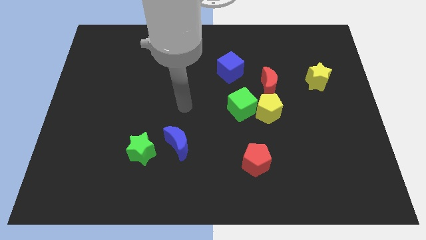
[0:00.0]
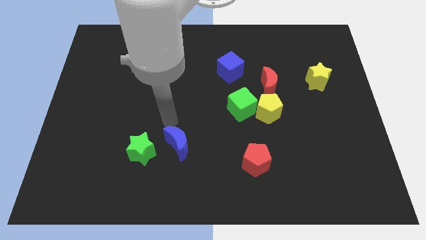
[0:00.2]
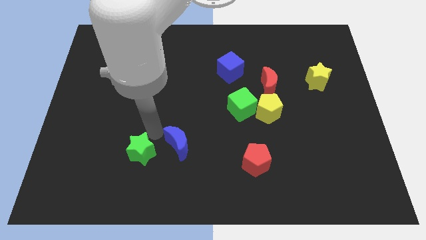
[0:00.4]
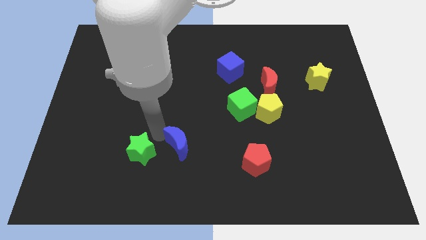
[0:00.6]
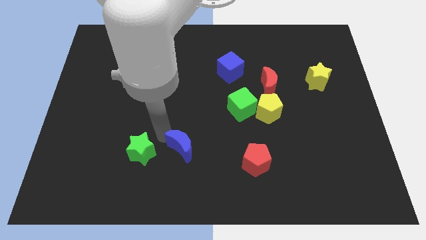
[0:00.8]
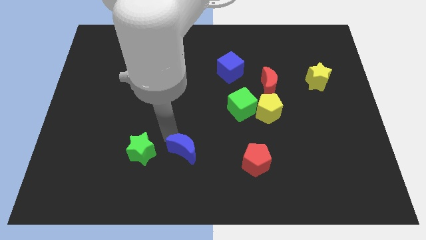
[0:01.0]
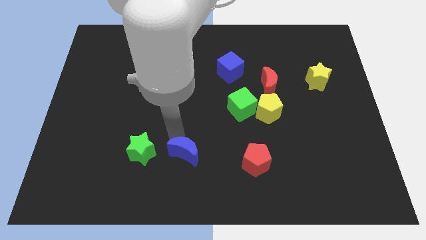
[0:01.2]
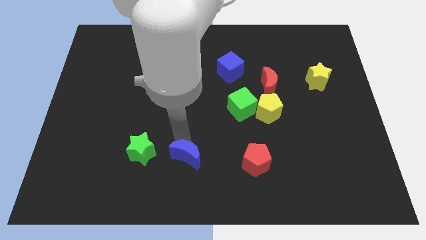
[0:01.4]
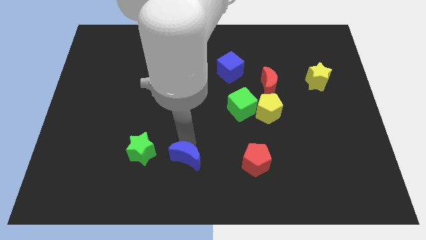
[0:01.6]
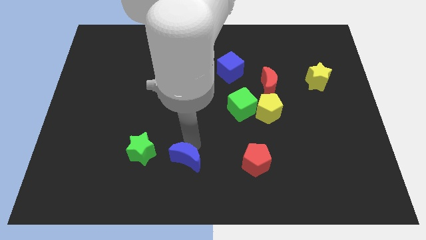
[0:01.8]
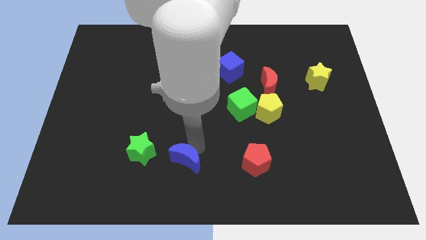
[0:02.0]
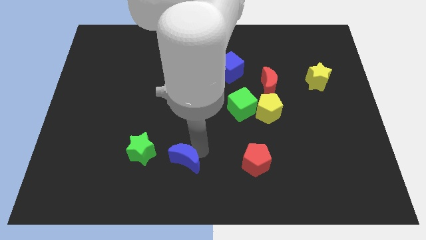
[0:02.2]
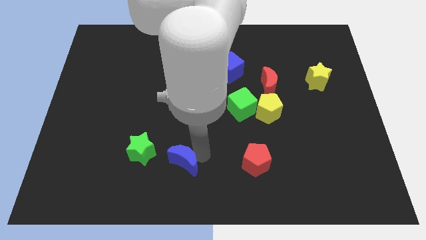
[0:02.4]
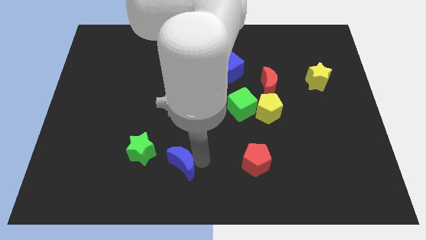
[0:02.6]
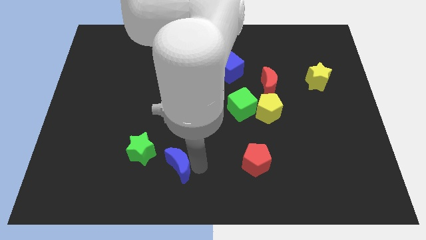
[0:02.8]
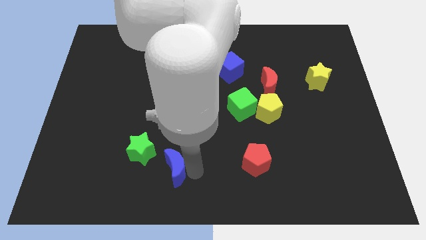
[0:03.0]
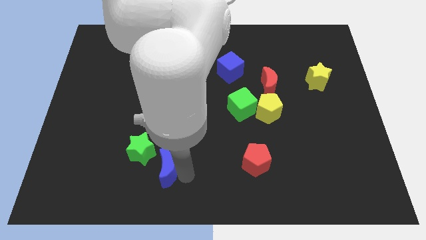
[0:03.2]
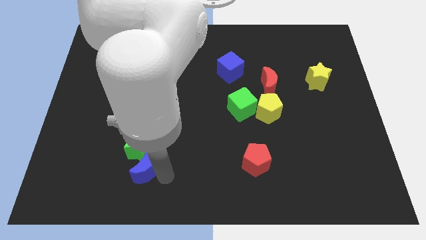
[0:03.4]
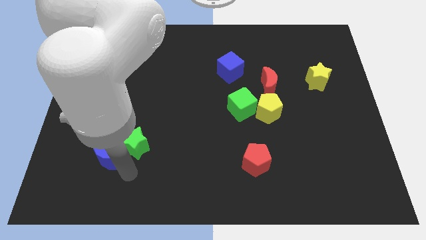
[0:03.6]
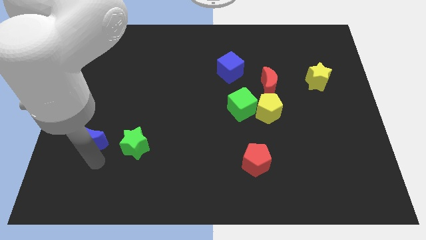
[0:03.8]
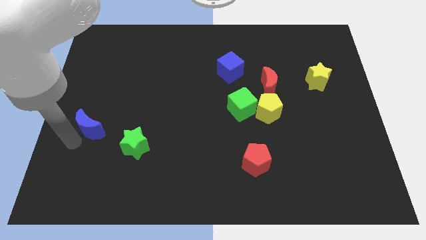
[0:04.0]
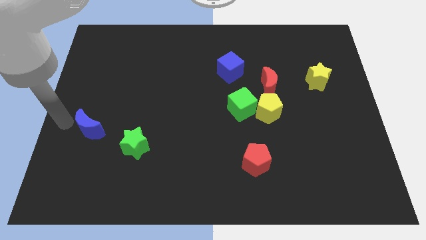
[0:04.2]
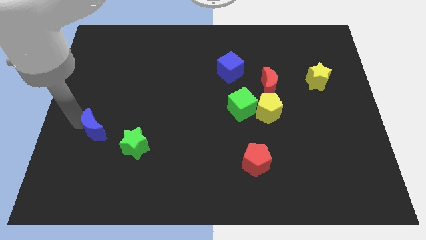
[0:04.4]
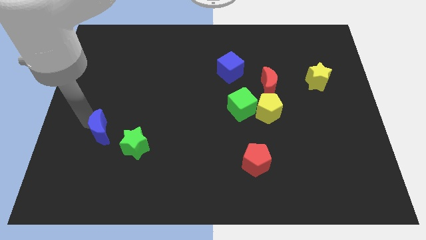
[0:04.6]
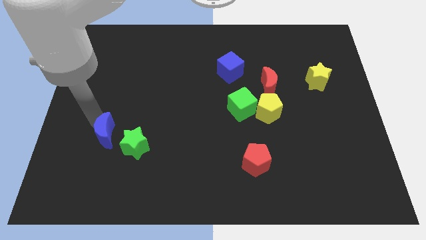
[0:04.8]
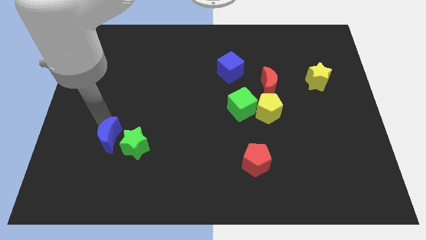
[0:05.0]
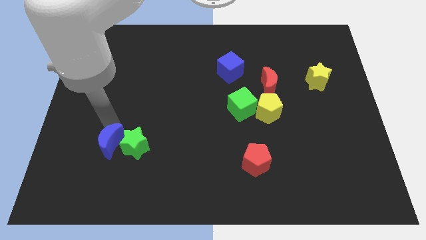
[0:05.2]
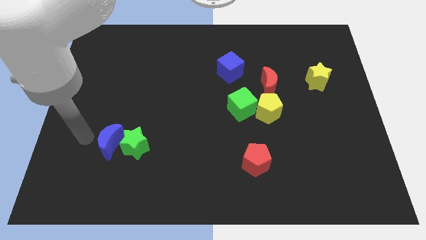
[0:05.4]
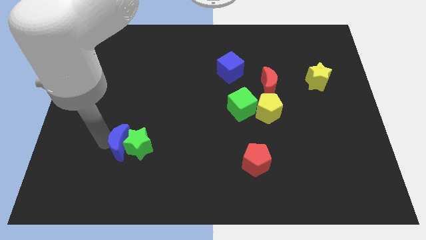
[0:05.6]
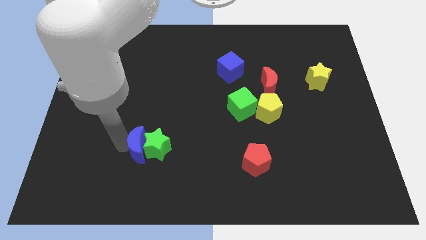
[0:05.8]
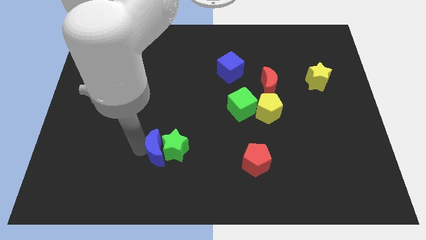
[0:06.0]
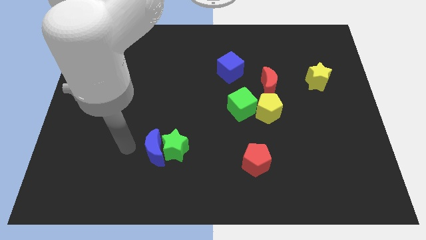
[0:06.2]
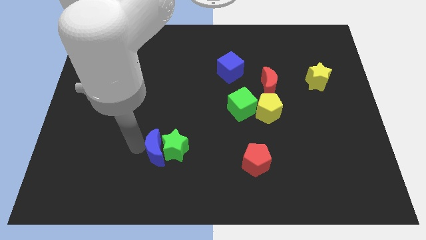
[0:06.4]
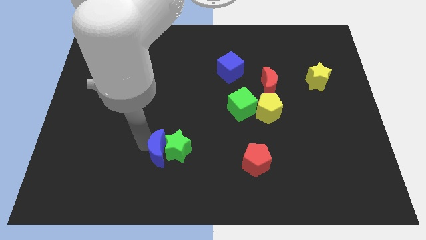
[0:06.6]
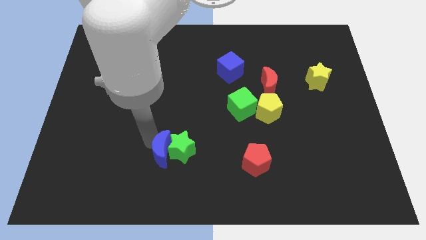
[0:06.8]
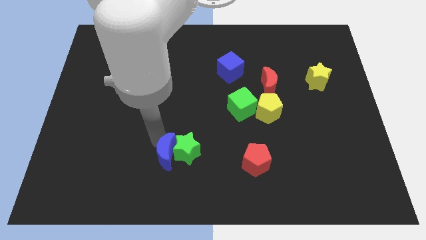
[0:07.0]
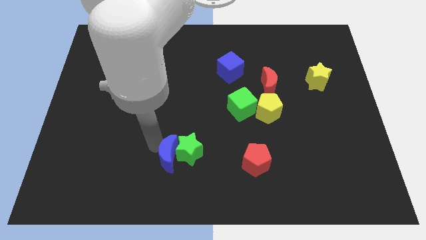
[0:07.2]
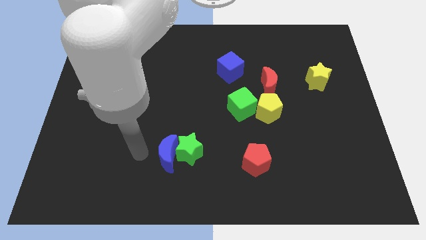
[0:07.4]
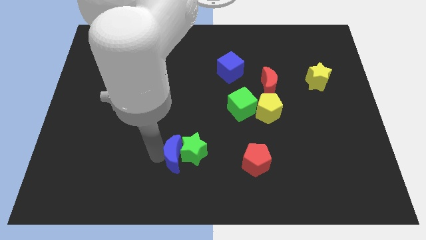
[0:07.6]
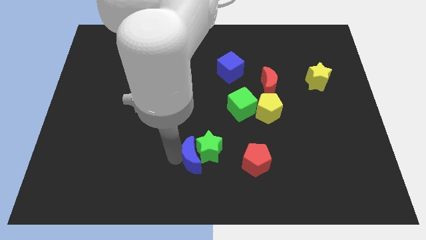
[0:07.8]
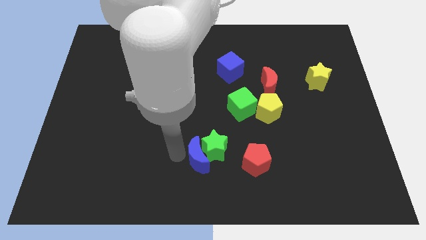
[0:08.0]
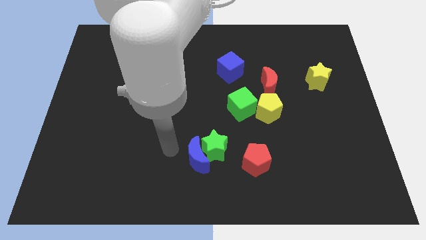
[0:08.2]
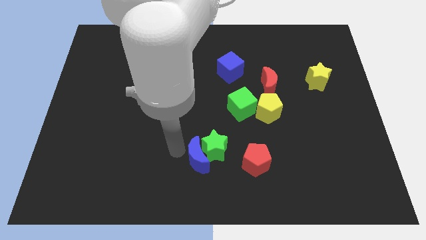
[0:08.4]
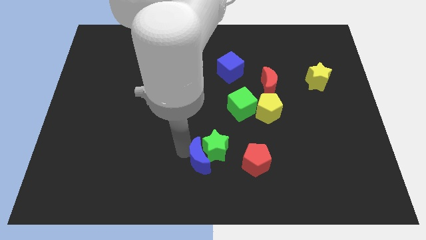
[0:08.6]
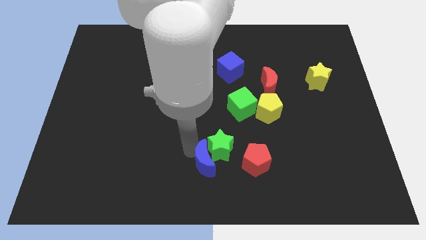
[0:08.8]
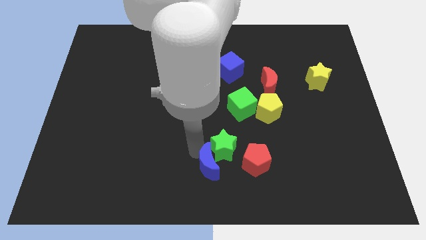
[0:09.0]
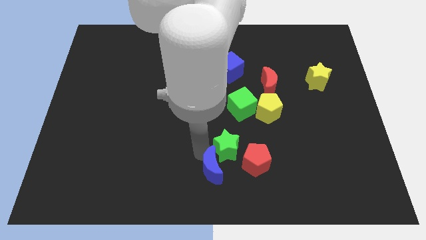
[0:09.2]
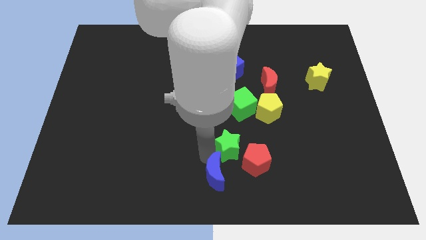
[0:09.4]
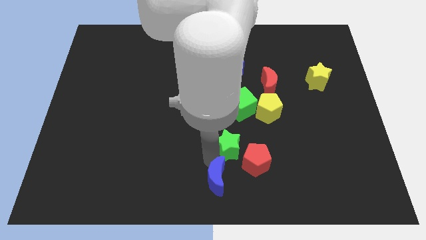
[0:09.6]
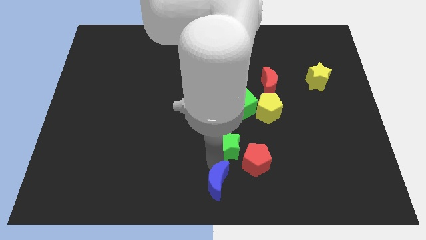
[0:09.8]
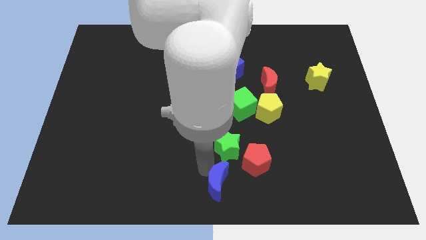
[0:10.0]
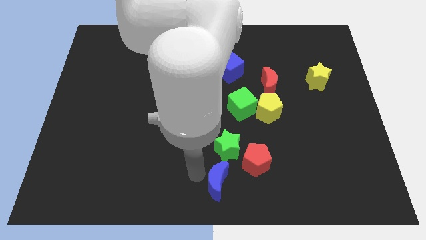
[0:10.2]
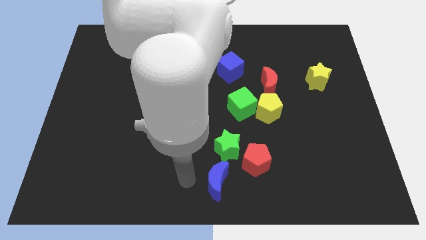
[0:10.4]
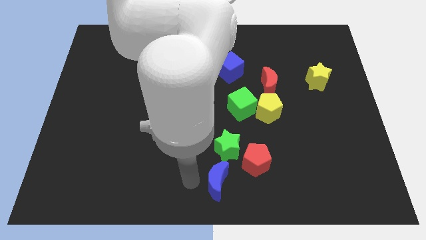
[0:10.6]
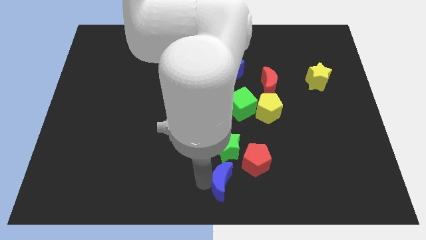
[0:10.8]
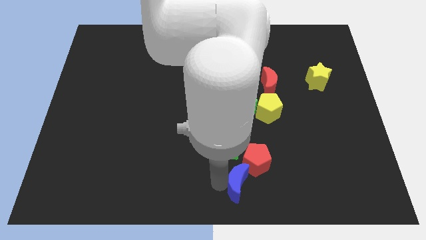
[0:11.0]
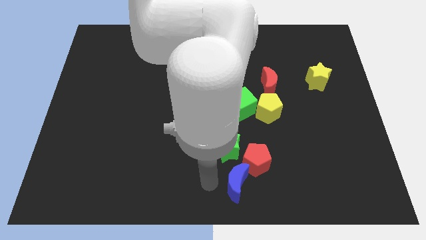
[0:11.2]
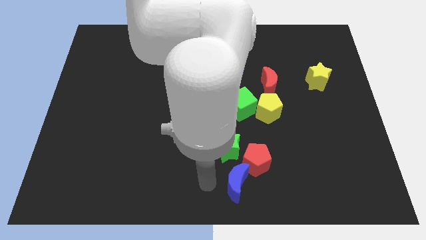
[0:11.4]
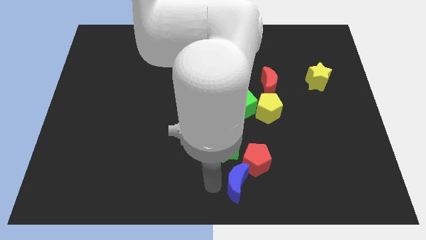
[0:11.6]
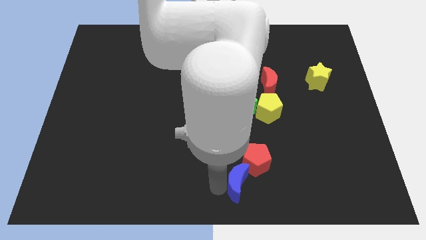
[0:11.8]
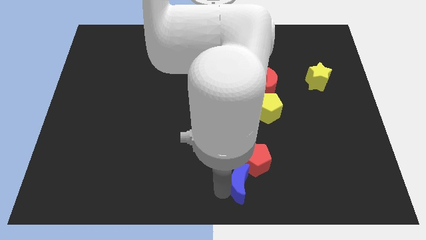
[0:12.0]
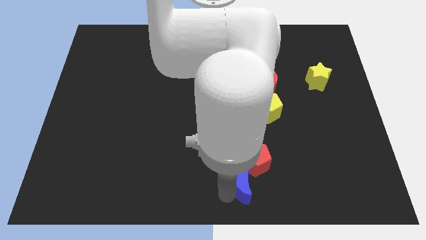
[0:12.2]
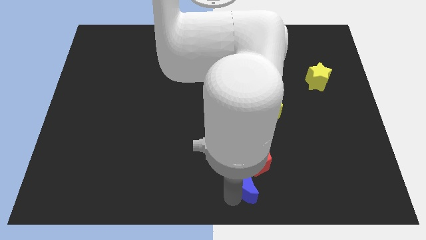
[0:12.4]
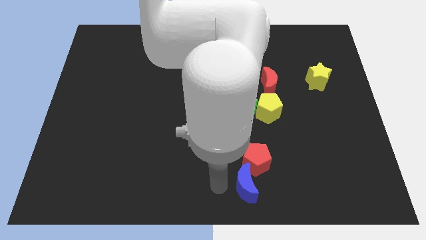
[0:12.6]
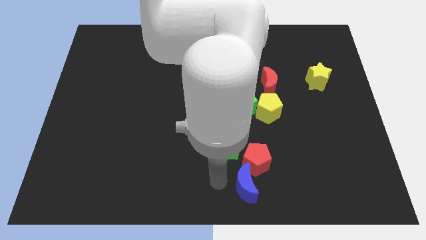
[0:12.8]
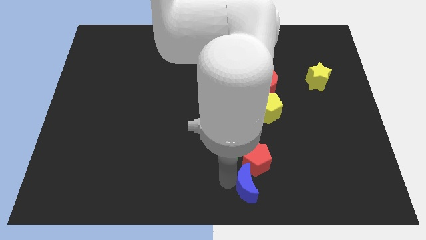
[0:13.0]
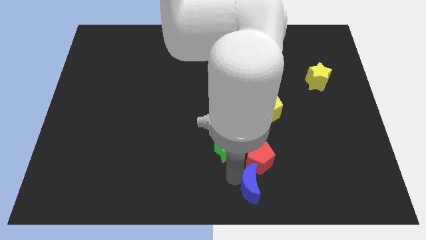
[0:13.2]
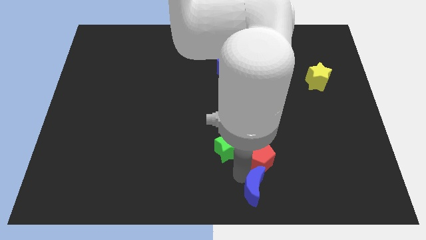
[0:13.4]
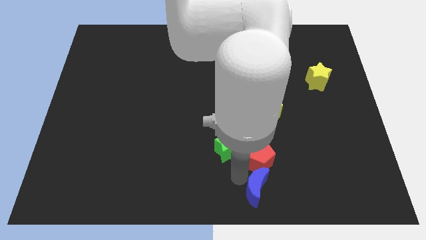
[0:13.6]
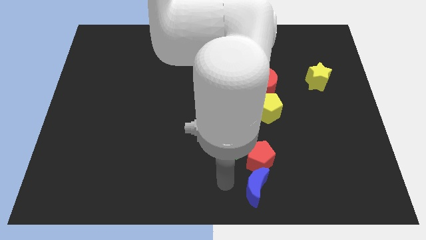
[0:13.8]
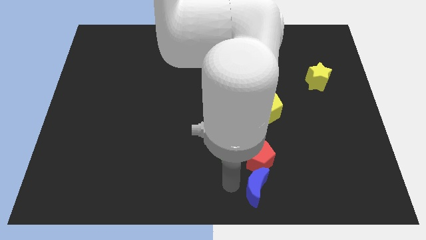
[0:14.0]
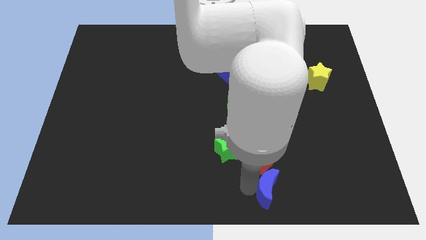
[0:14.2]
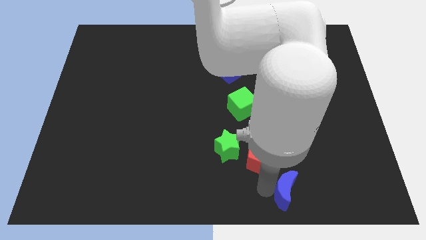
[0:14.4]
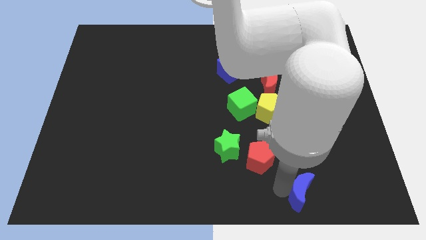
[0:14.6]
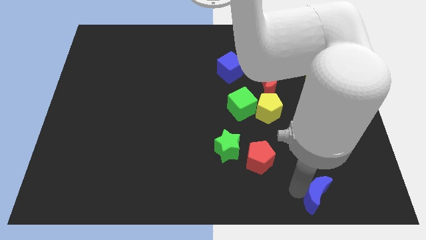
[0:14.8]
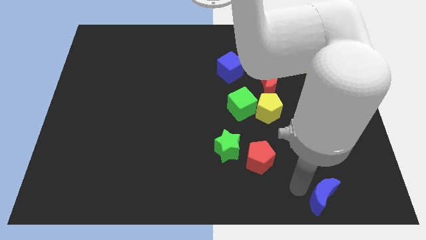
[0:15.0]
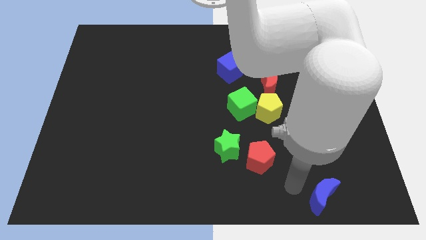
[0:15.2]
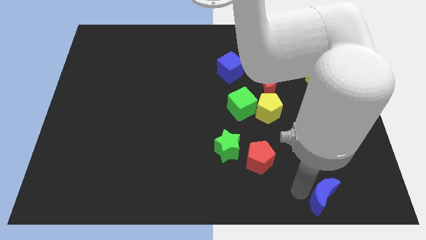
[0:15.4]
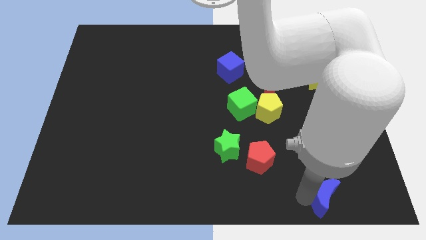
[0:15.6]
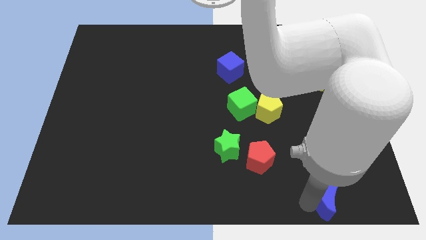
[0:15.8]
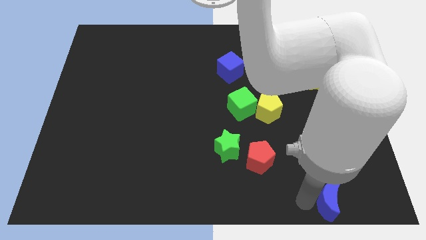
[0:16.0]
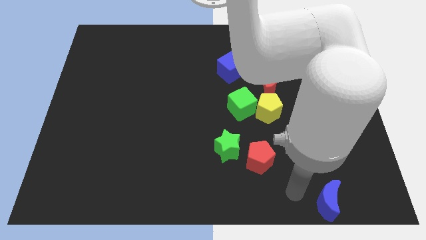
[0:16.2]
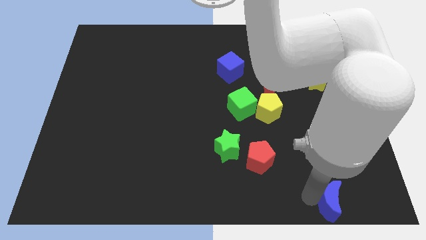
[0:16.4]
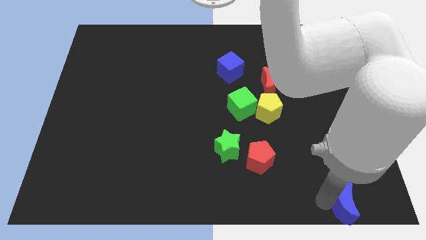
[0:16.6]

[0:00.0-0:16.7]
push the blue moon to the bottom right of the board
